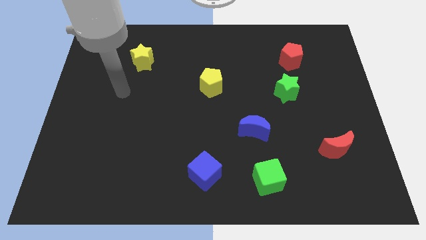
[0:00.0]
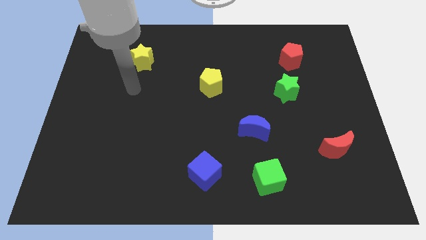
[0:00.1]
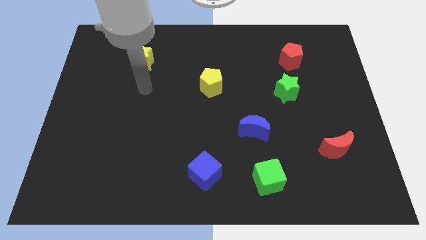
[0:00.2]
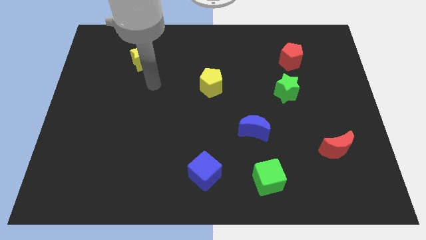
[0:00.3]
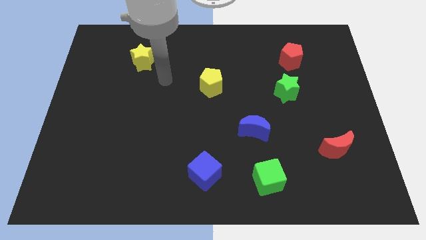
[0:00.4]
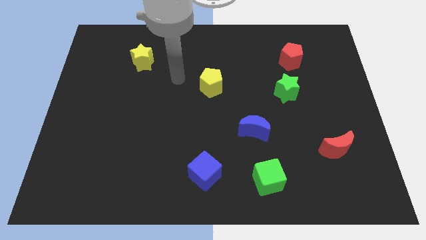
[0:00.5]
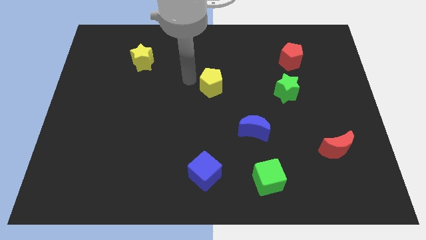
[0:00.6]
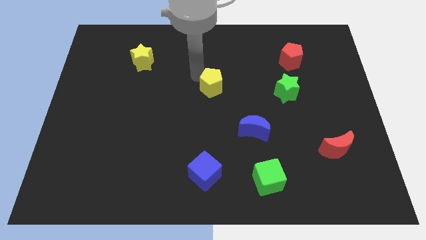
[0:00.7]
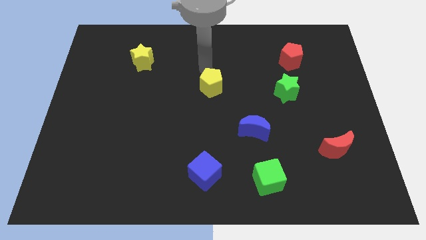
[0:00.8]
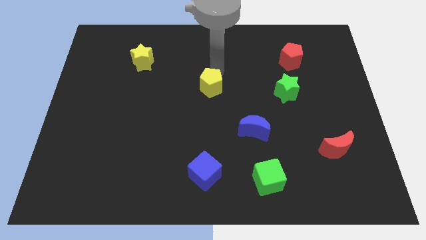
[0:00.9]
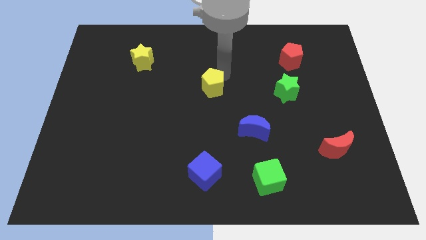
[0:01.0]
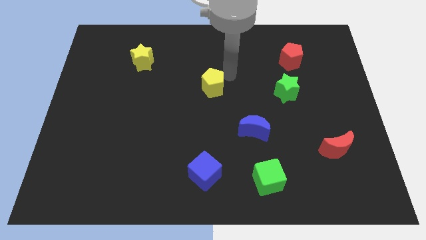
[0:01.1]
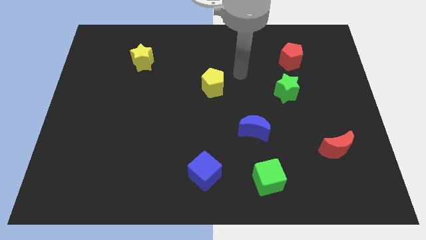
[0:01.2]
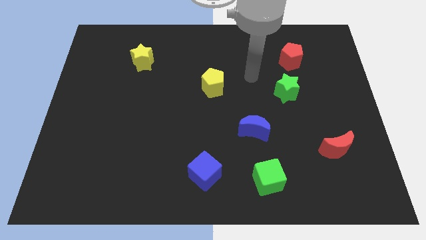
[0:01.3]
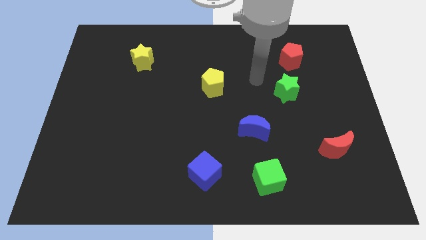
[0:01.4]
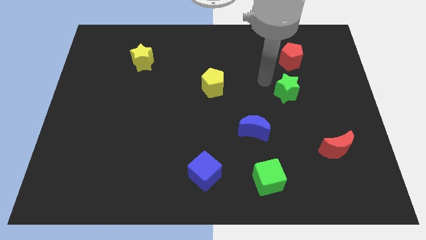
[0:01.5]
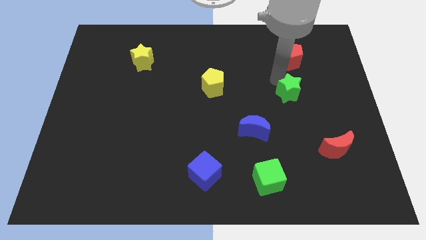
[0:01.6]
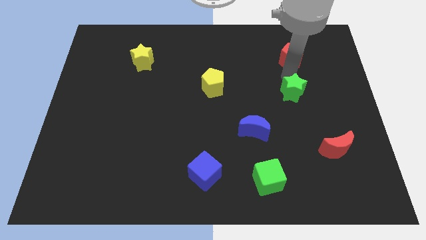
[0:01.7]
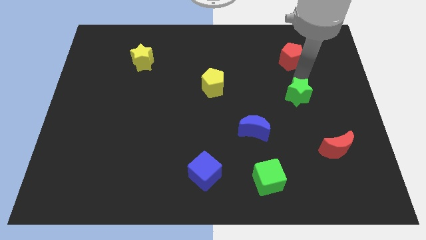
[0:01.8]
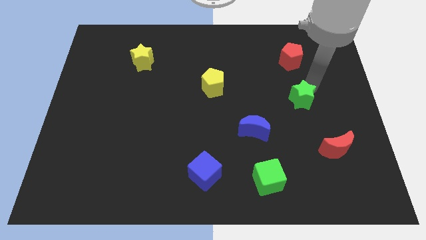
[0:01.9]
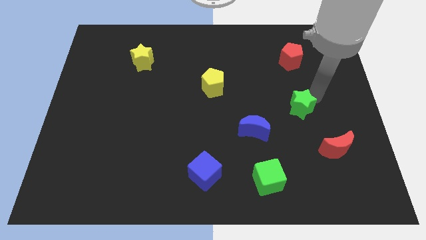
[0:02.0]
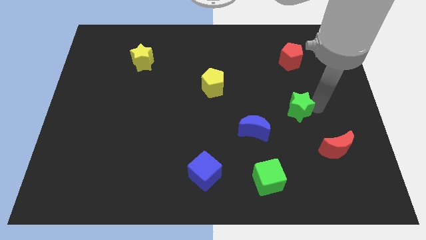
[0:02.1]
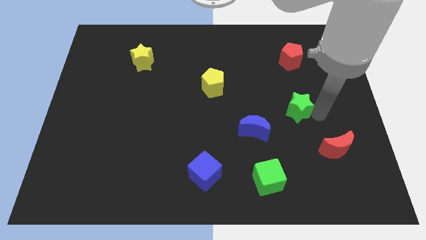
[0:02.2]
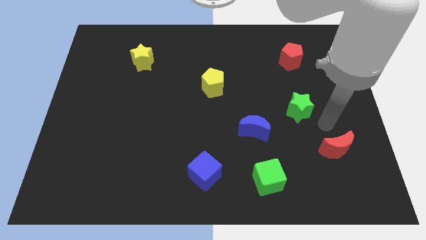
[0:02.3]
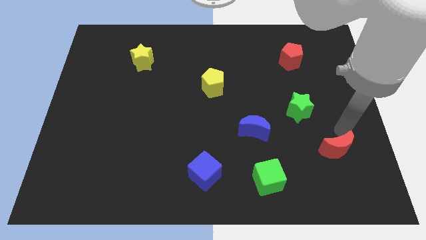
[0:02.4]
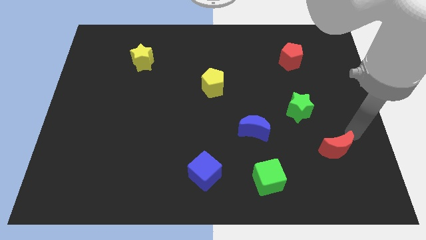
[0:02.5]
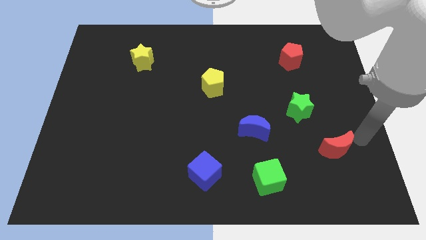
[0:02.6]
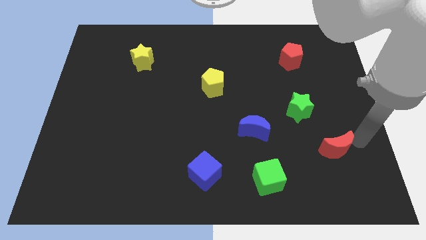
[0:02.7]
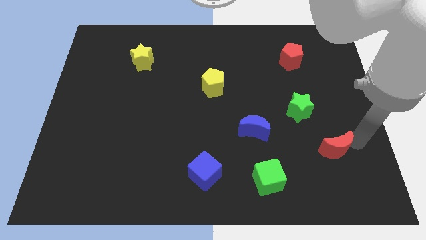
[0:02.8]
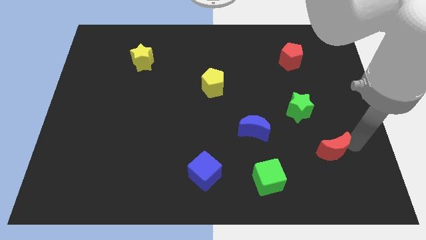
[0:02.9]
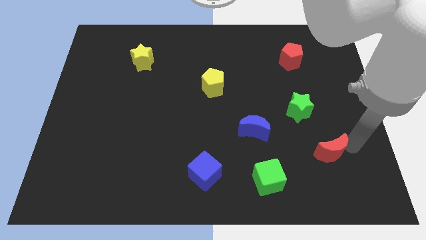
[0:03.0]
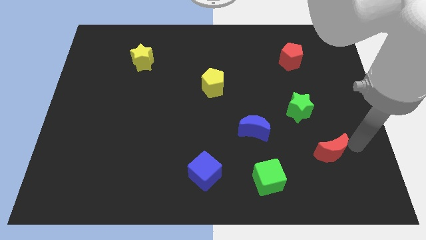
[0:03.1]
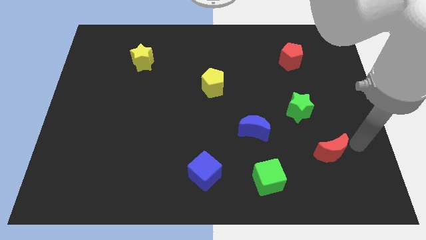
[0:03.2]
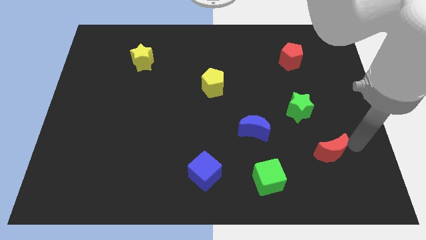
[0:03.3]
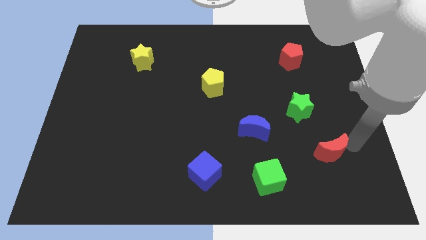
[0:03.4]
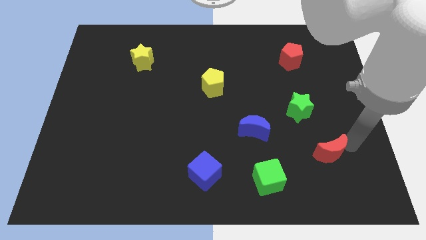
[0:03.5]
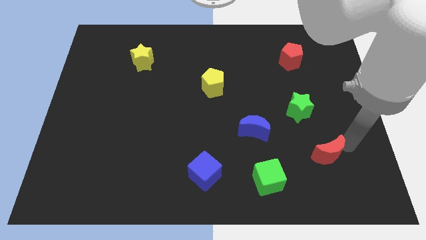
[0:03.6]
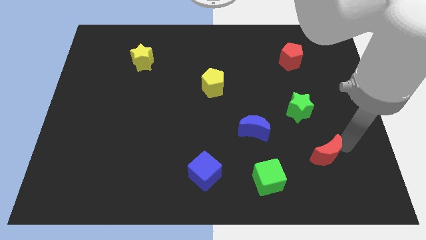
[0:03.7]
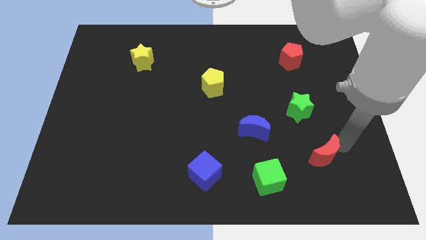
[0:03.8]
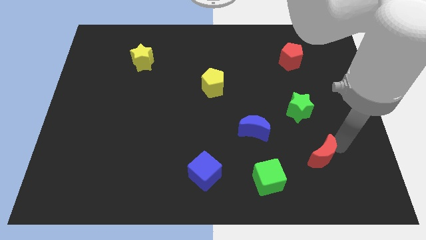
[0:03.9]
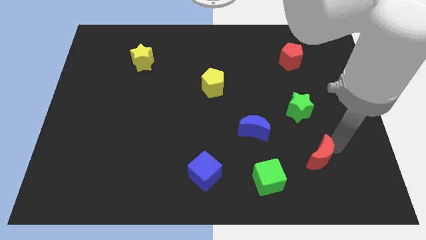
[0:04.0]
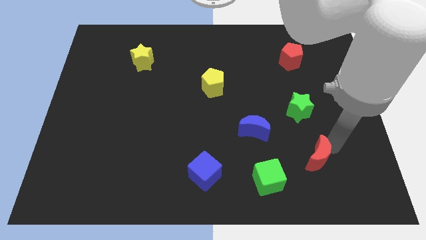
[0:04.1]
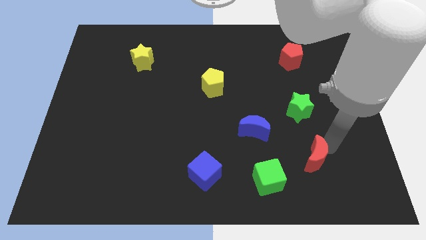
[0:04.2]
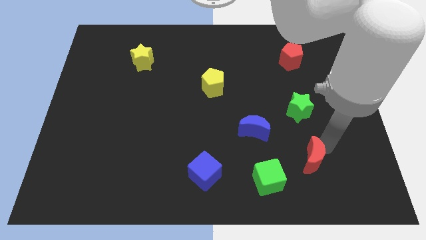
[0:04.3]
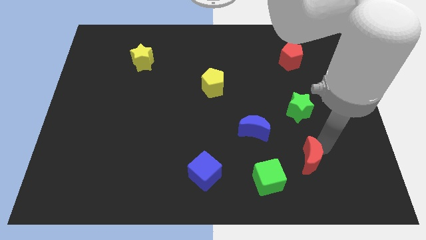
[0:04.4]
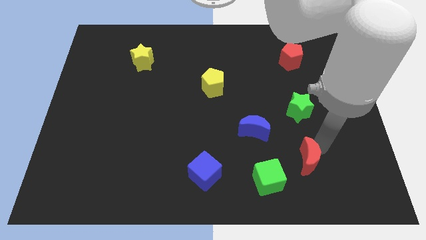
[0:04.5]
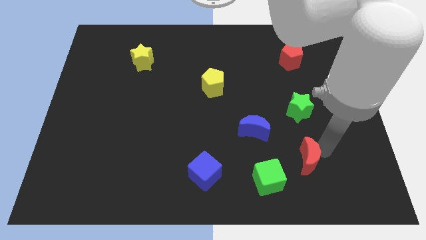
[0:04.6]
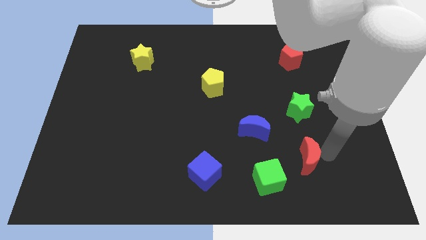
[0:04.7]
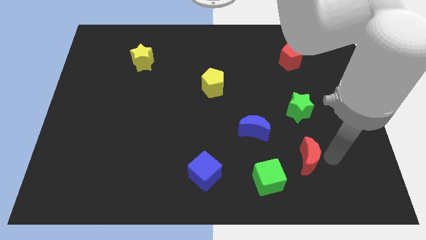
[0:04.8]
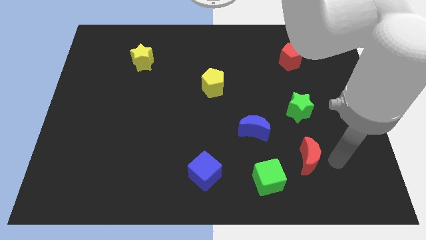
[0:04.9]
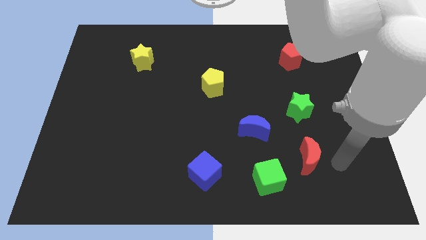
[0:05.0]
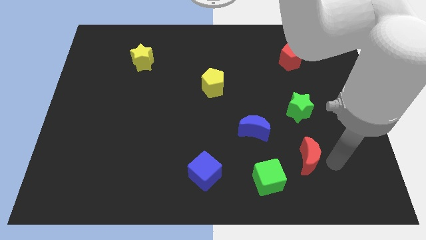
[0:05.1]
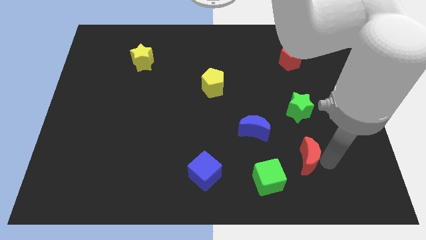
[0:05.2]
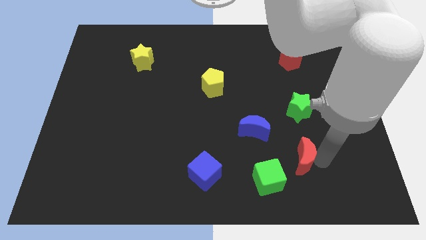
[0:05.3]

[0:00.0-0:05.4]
move the red moon somewhat to the left

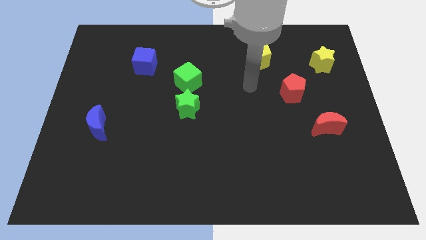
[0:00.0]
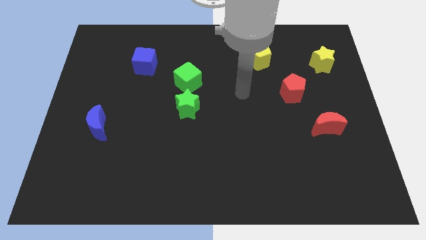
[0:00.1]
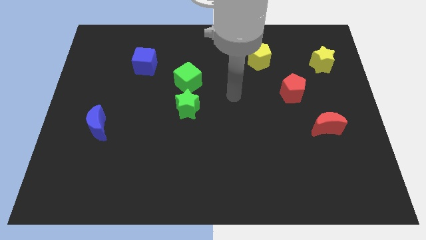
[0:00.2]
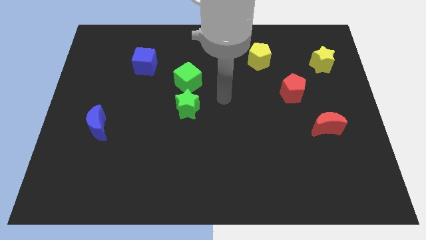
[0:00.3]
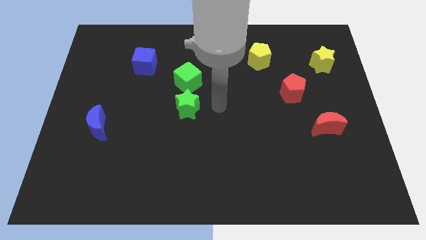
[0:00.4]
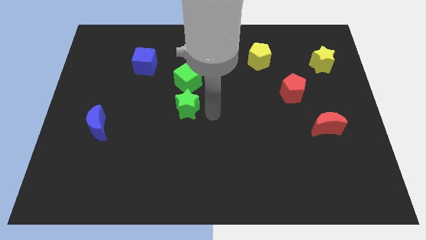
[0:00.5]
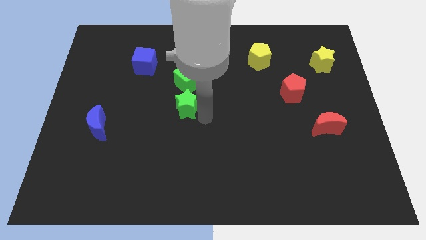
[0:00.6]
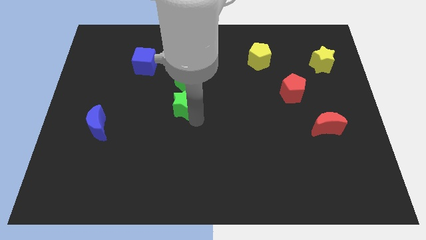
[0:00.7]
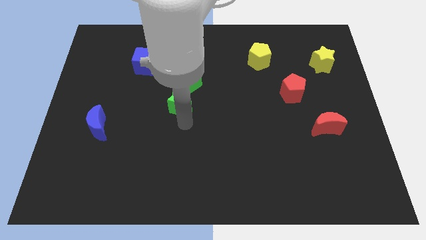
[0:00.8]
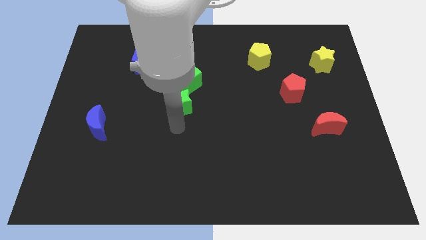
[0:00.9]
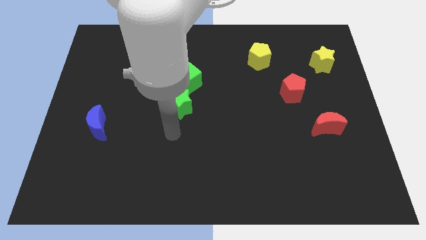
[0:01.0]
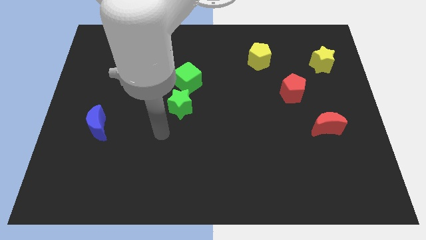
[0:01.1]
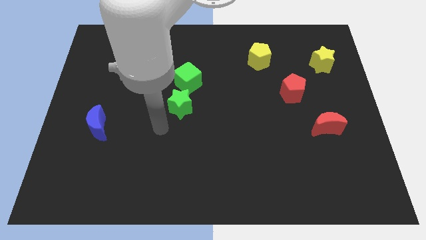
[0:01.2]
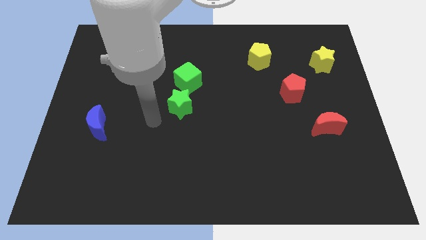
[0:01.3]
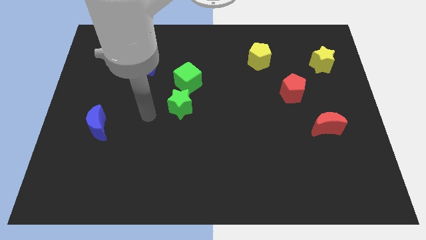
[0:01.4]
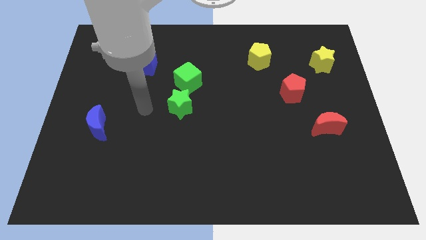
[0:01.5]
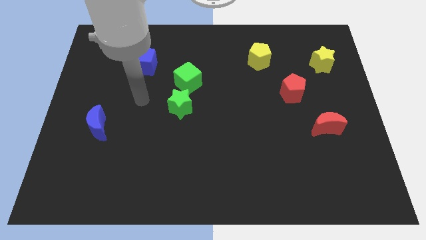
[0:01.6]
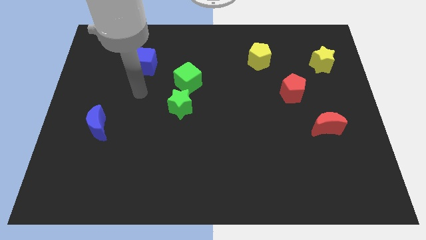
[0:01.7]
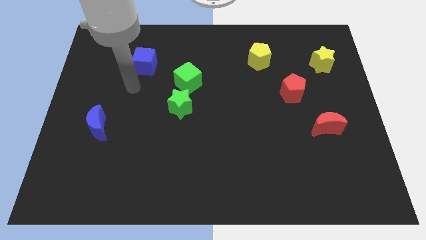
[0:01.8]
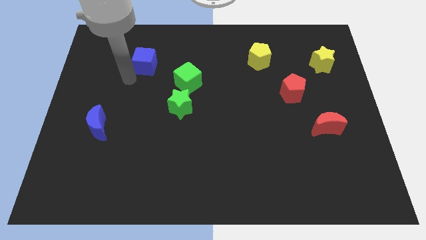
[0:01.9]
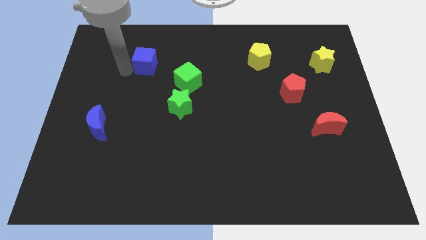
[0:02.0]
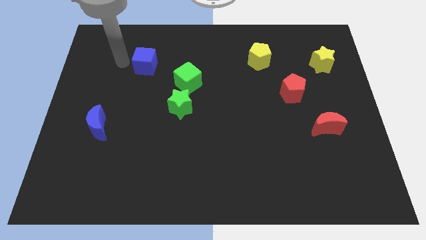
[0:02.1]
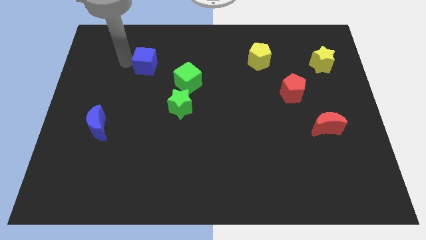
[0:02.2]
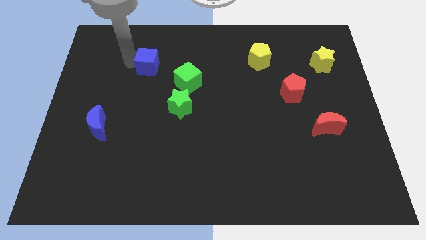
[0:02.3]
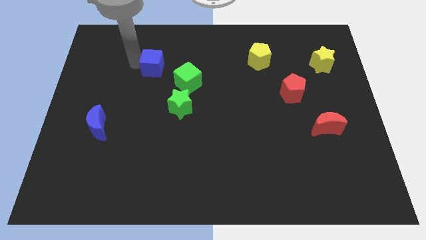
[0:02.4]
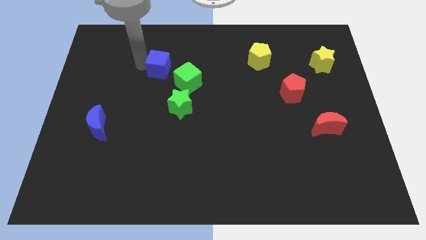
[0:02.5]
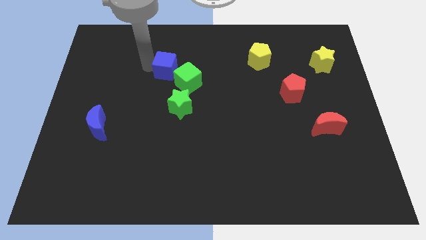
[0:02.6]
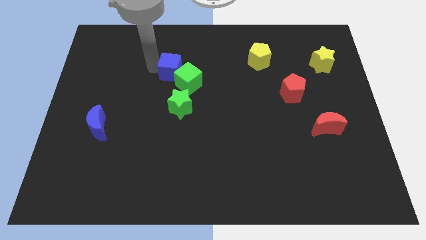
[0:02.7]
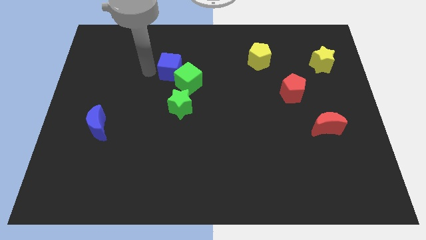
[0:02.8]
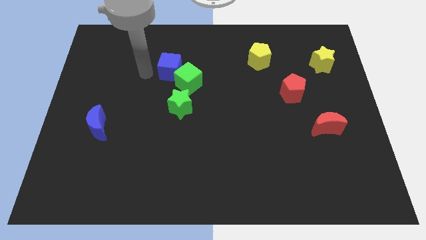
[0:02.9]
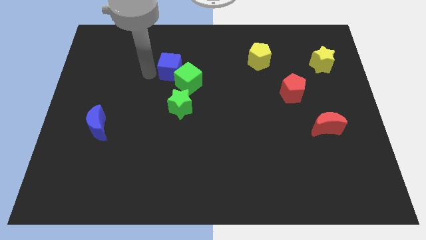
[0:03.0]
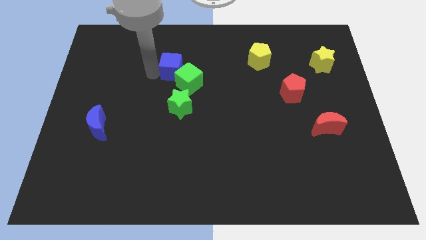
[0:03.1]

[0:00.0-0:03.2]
slightly slide the blue cube to the right
